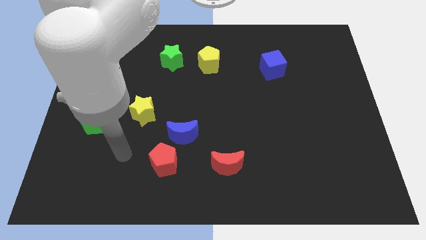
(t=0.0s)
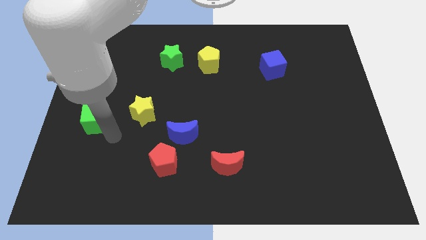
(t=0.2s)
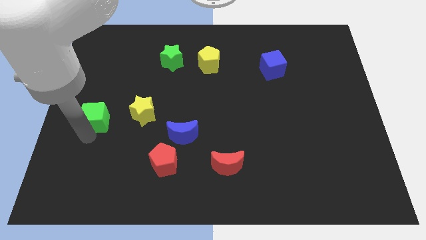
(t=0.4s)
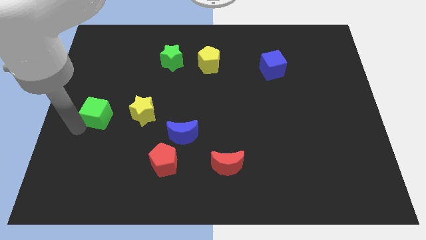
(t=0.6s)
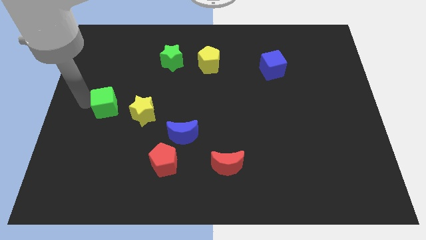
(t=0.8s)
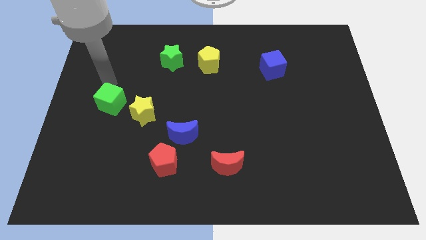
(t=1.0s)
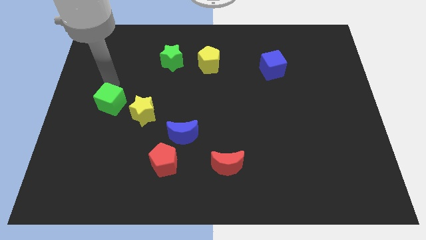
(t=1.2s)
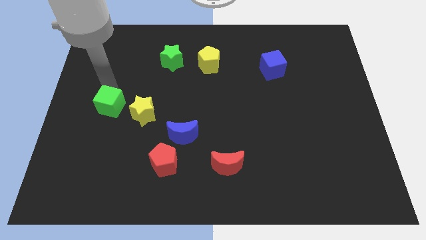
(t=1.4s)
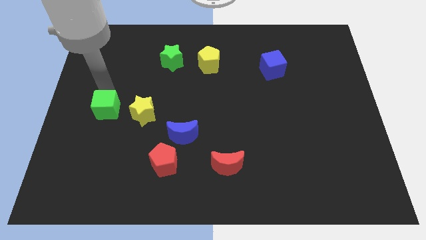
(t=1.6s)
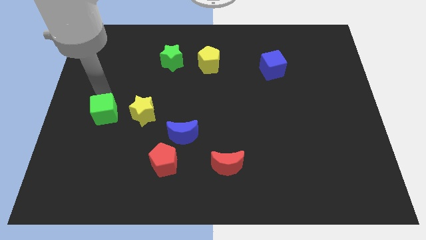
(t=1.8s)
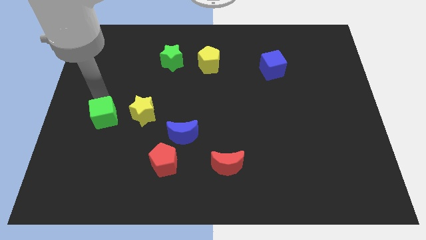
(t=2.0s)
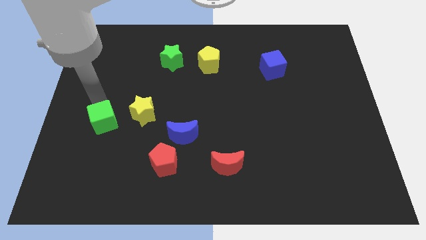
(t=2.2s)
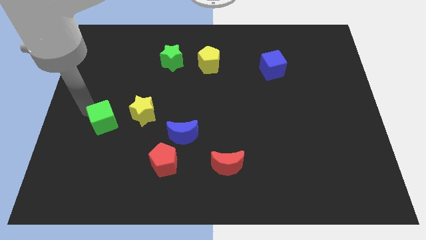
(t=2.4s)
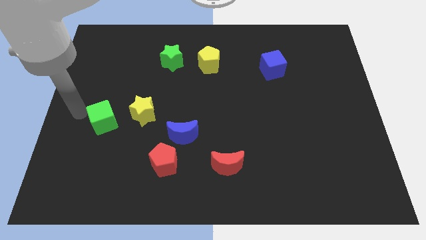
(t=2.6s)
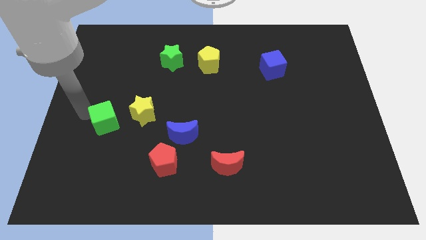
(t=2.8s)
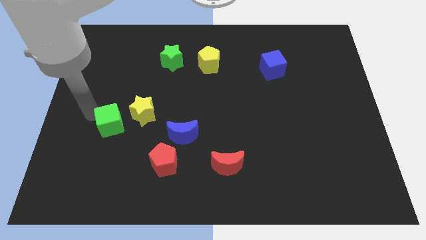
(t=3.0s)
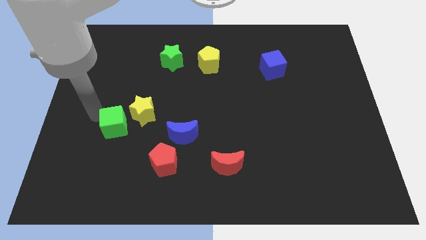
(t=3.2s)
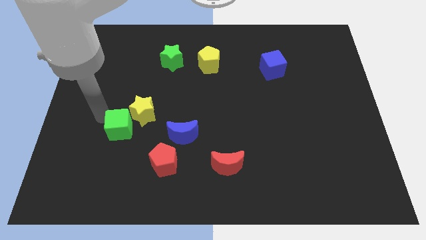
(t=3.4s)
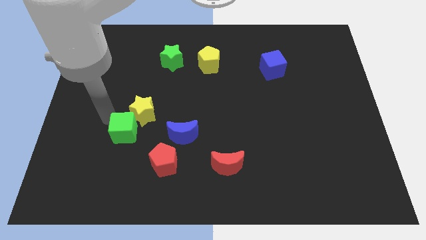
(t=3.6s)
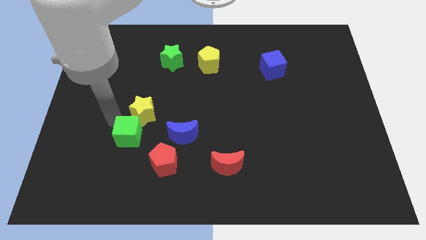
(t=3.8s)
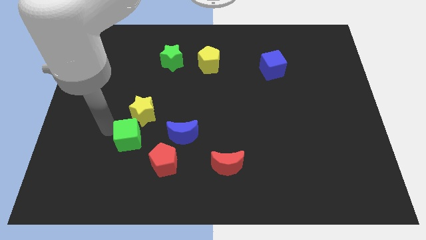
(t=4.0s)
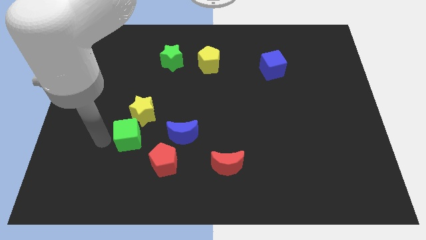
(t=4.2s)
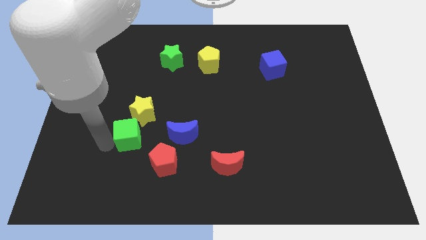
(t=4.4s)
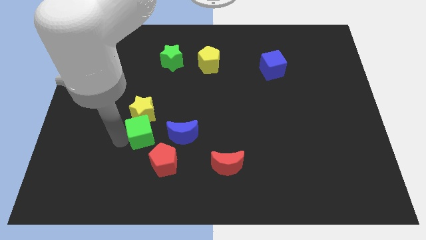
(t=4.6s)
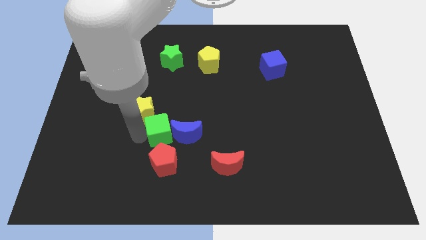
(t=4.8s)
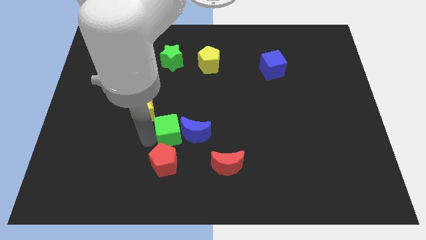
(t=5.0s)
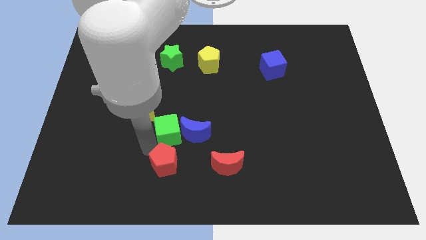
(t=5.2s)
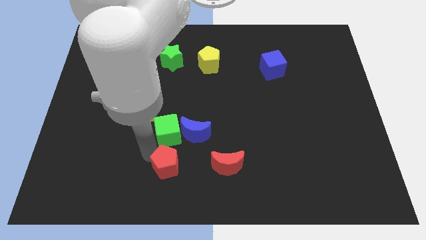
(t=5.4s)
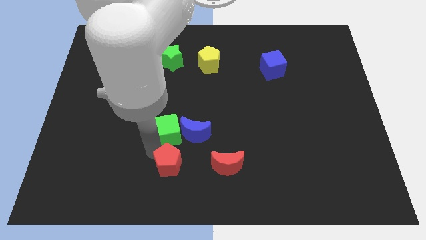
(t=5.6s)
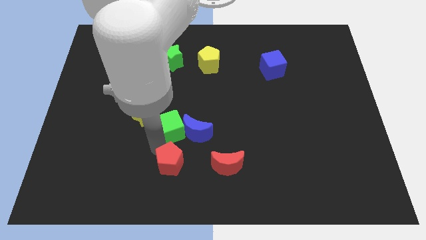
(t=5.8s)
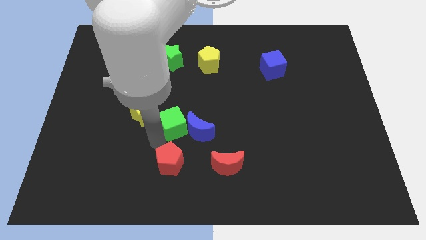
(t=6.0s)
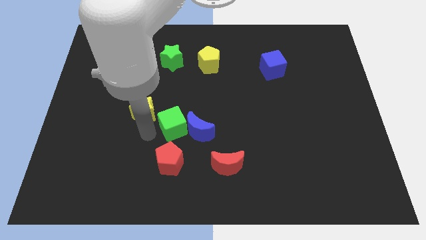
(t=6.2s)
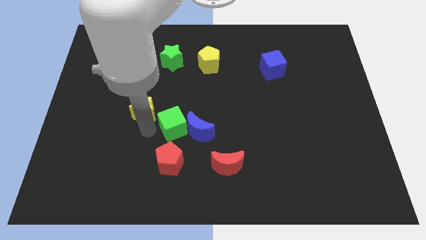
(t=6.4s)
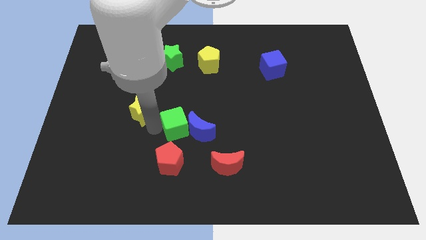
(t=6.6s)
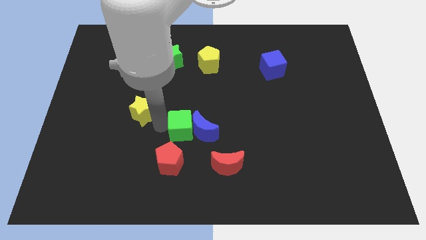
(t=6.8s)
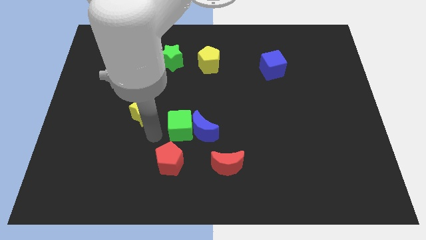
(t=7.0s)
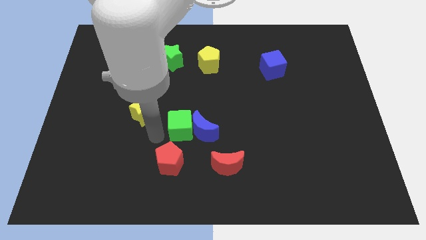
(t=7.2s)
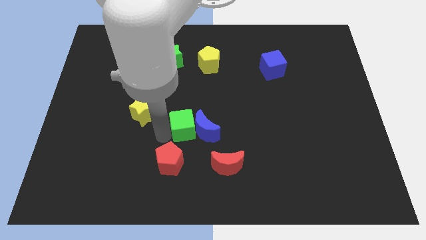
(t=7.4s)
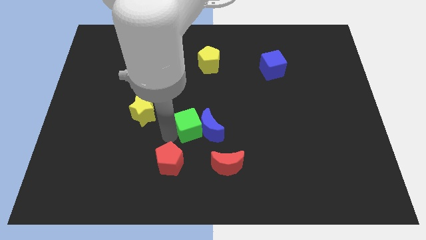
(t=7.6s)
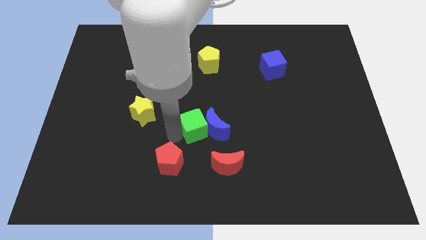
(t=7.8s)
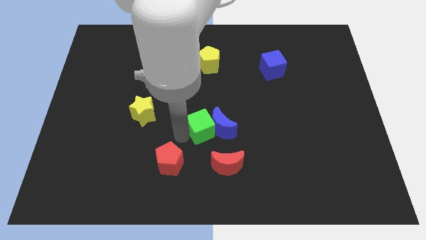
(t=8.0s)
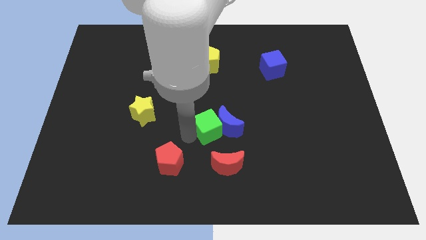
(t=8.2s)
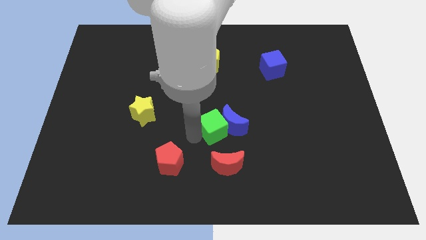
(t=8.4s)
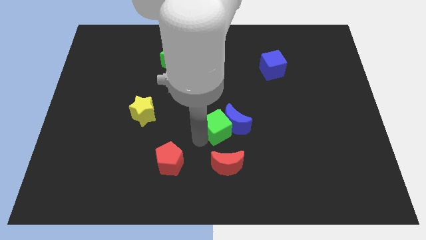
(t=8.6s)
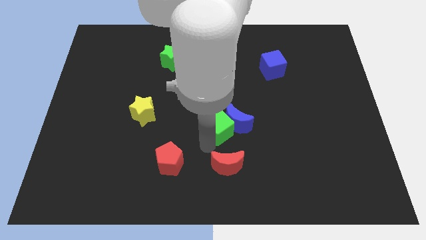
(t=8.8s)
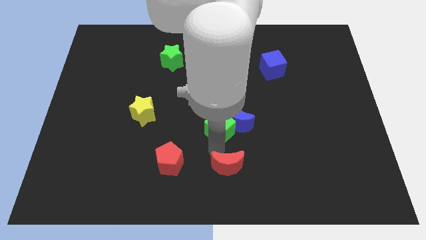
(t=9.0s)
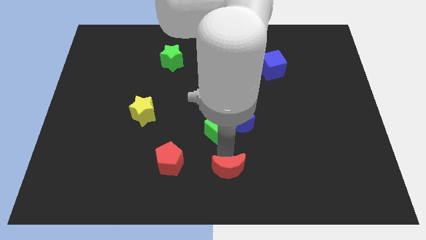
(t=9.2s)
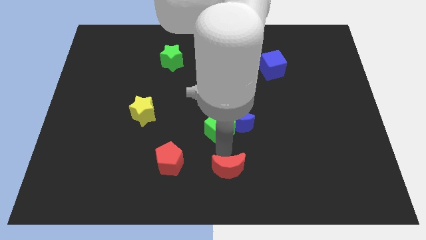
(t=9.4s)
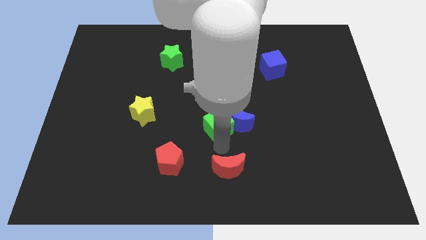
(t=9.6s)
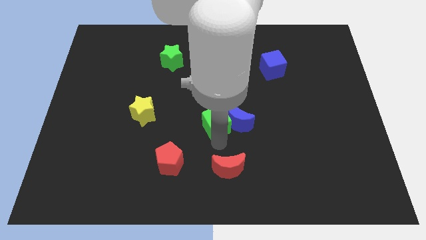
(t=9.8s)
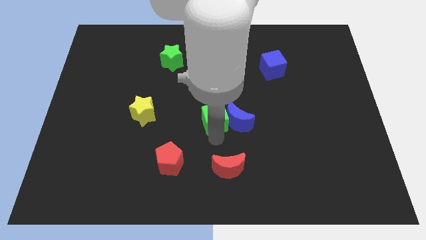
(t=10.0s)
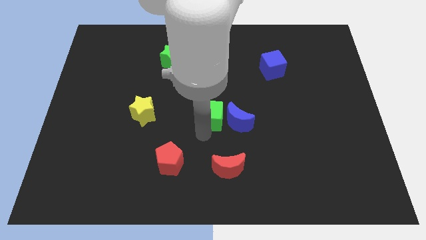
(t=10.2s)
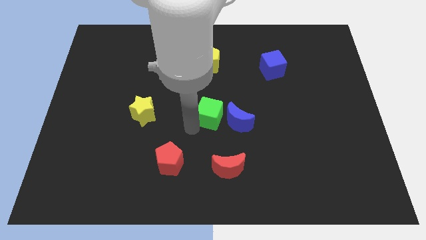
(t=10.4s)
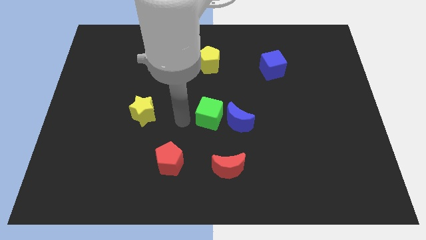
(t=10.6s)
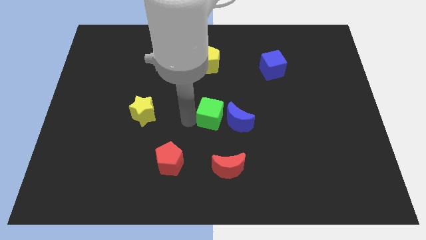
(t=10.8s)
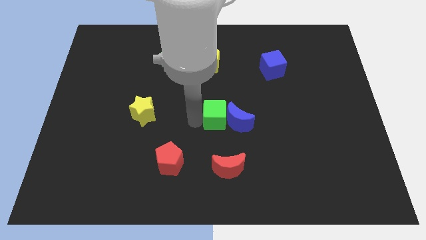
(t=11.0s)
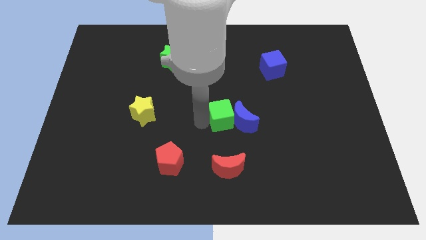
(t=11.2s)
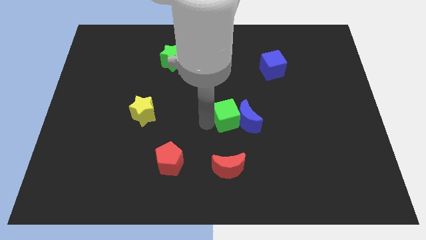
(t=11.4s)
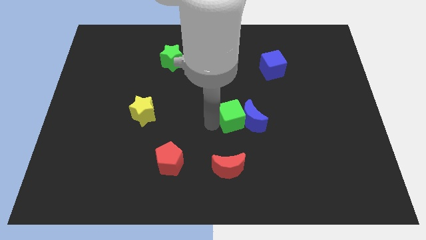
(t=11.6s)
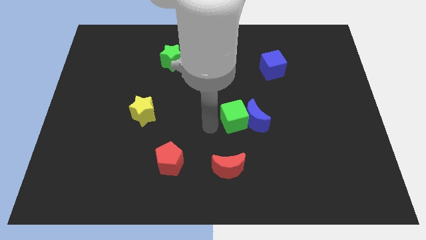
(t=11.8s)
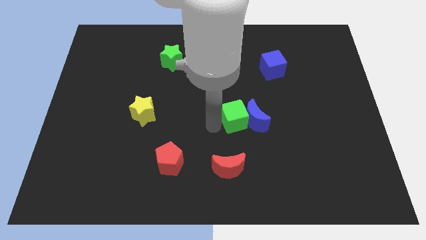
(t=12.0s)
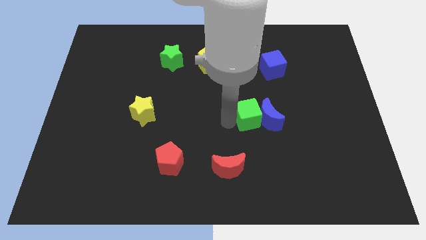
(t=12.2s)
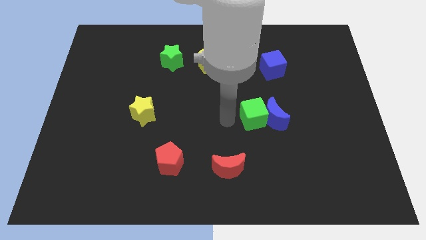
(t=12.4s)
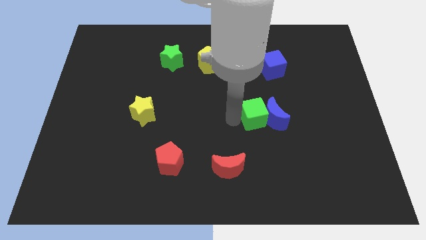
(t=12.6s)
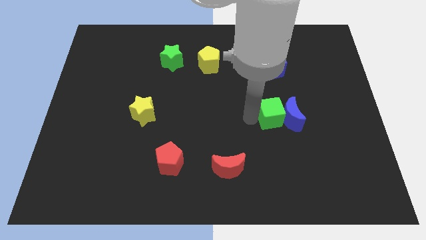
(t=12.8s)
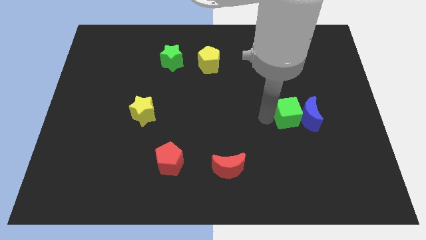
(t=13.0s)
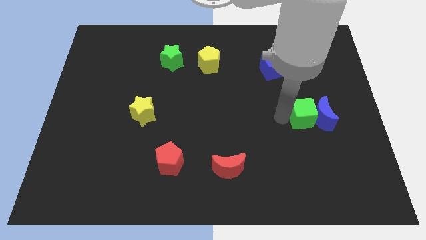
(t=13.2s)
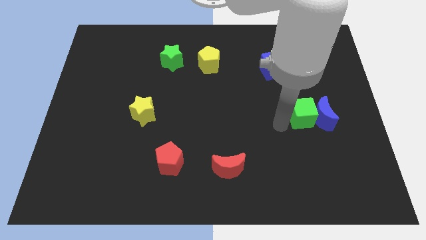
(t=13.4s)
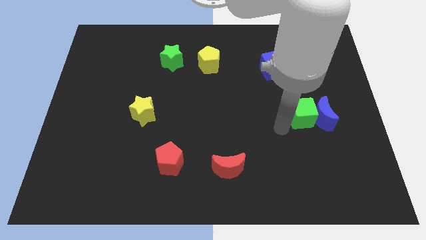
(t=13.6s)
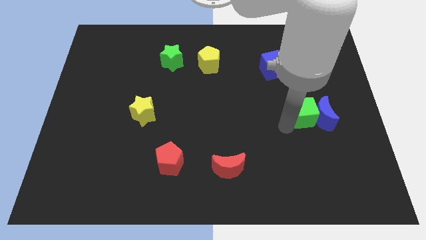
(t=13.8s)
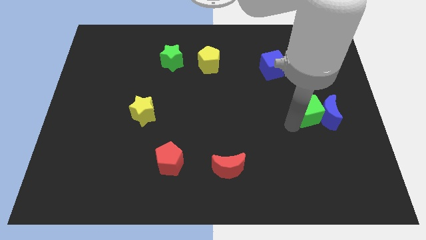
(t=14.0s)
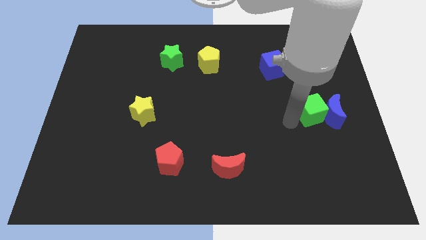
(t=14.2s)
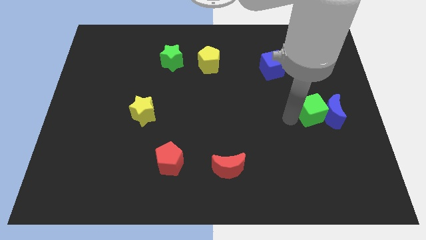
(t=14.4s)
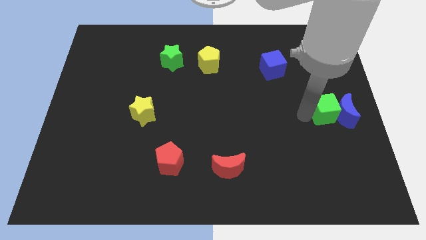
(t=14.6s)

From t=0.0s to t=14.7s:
put the green cube to the right side of the board

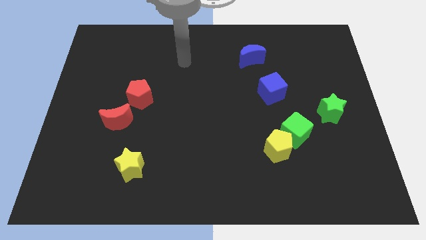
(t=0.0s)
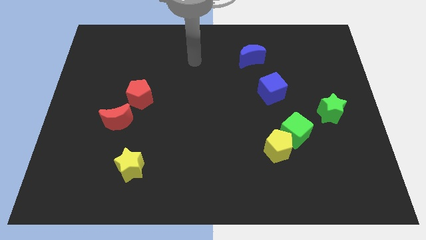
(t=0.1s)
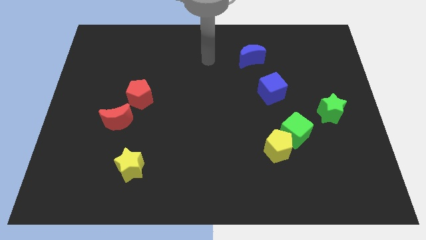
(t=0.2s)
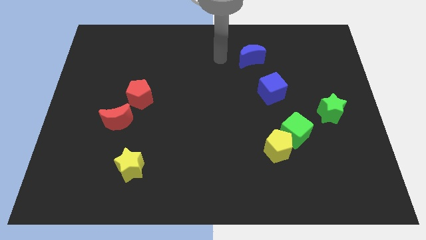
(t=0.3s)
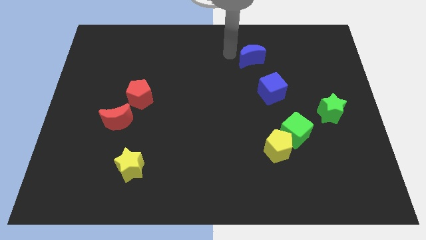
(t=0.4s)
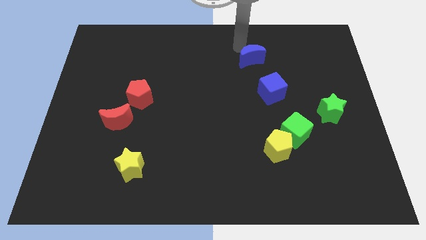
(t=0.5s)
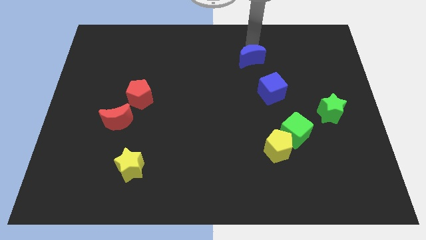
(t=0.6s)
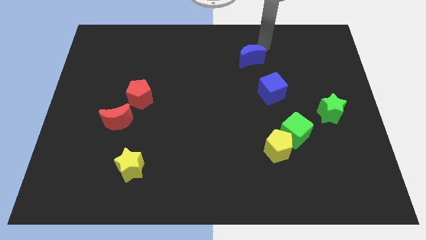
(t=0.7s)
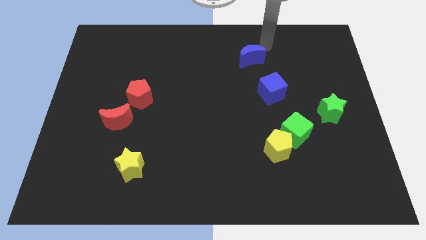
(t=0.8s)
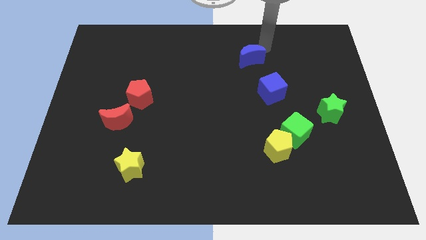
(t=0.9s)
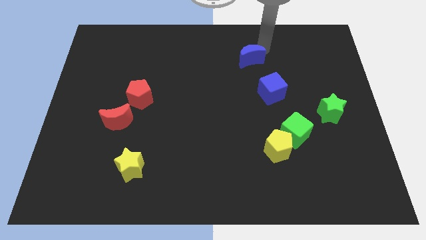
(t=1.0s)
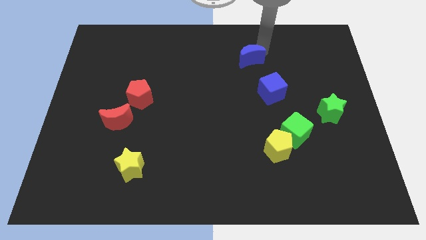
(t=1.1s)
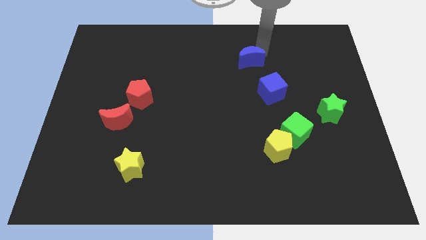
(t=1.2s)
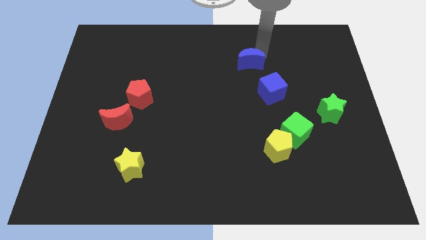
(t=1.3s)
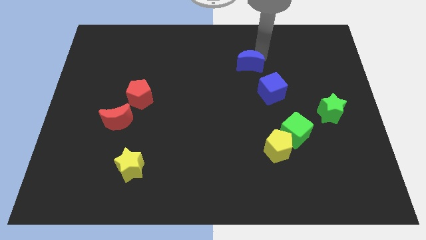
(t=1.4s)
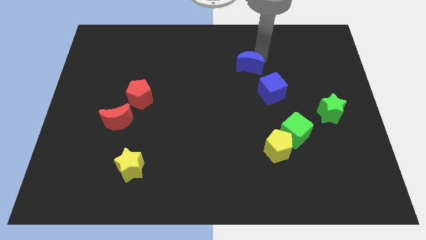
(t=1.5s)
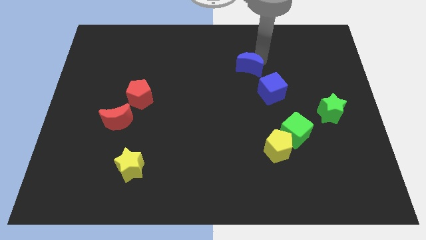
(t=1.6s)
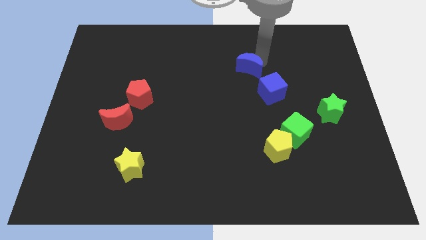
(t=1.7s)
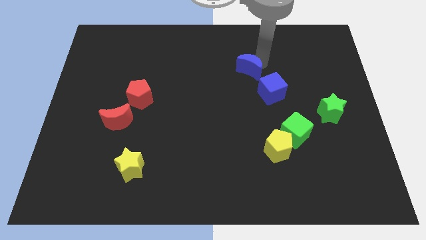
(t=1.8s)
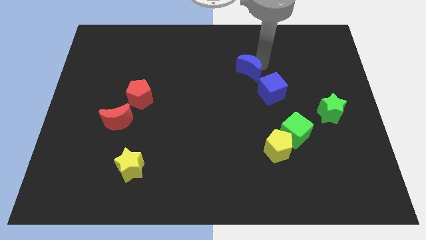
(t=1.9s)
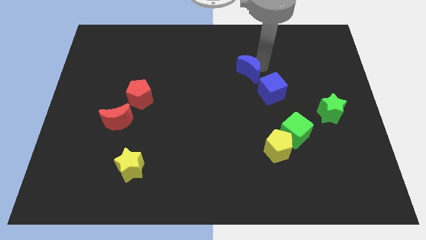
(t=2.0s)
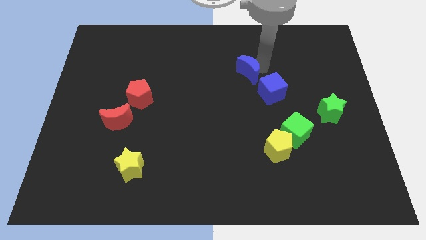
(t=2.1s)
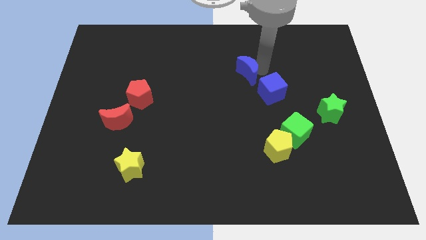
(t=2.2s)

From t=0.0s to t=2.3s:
put the blue moon to the middle of the board
